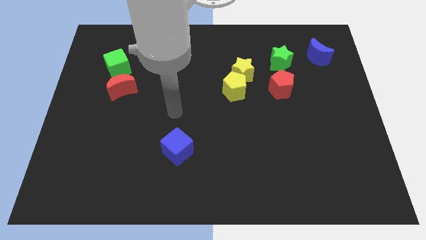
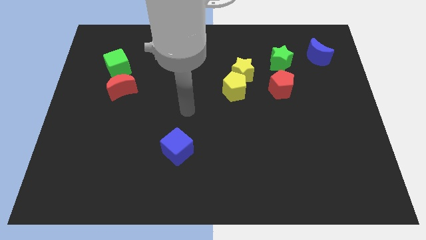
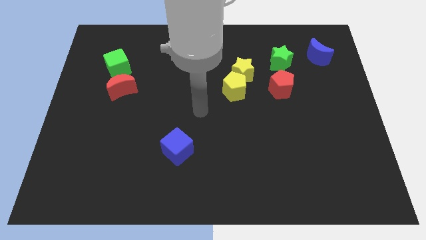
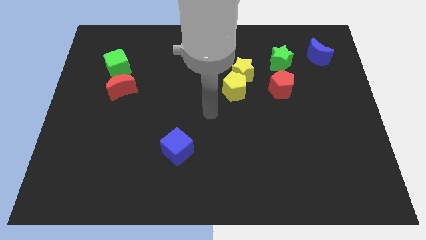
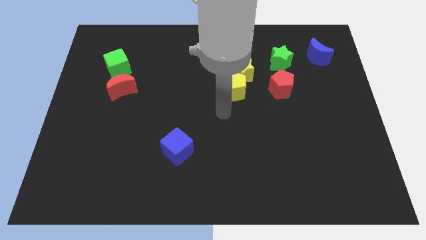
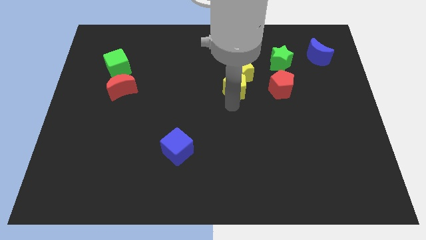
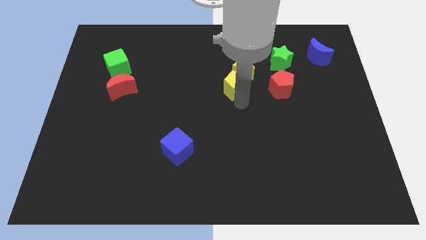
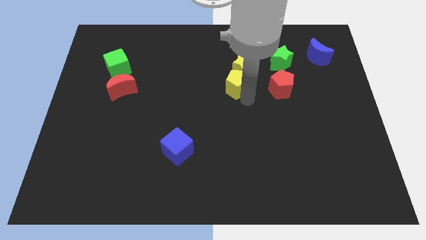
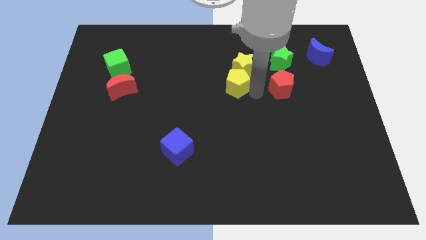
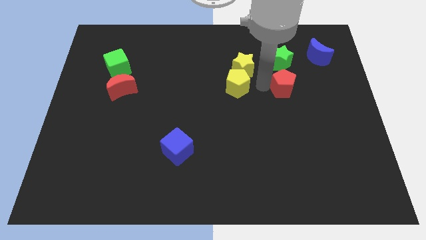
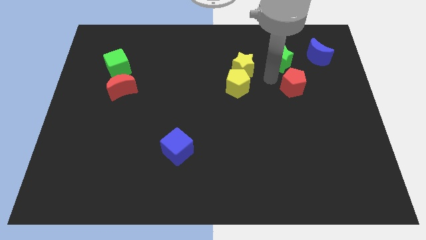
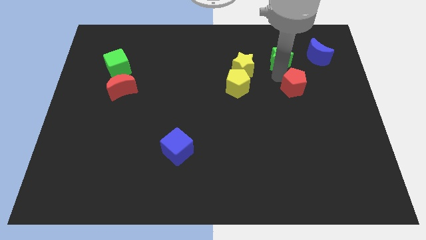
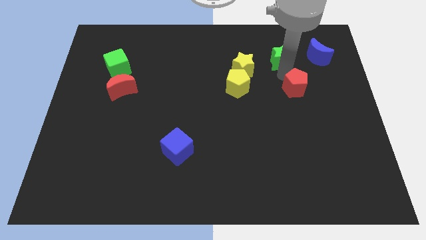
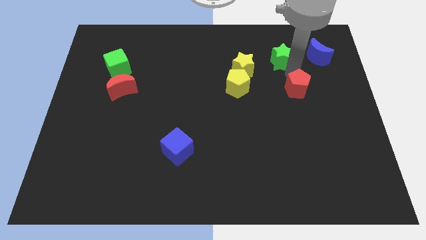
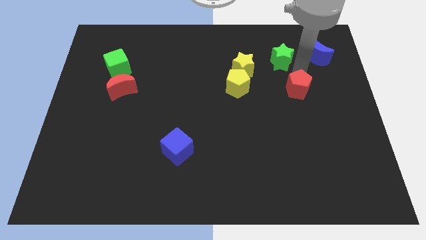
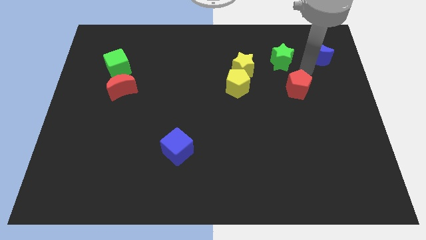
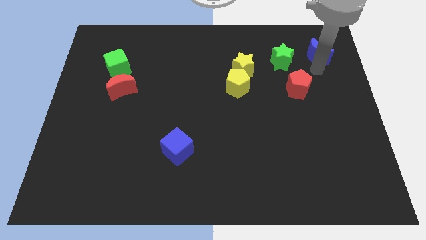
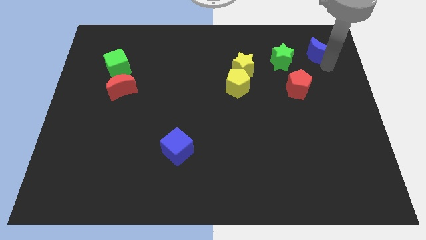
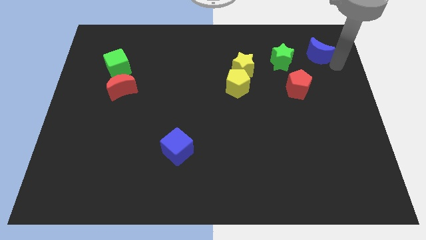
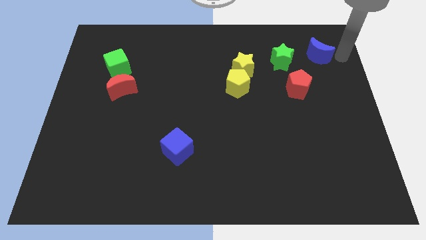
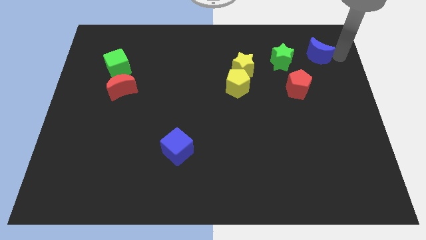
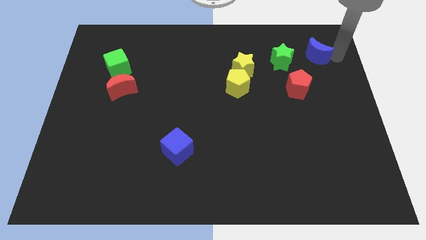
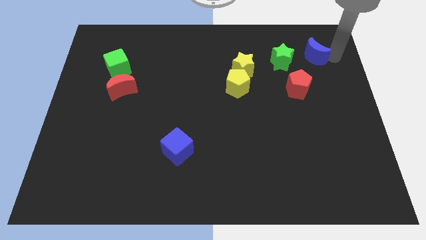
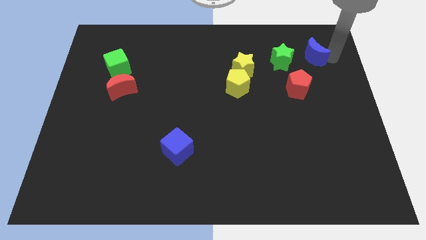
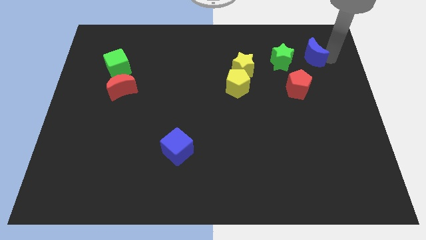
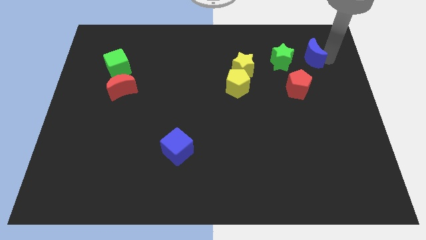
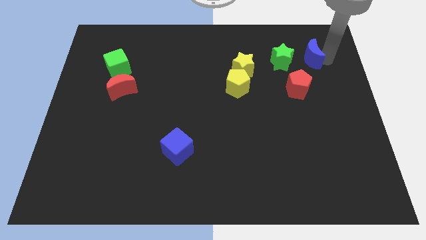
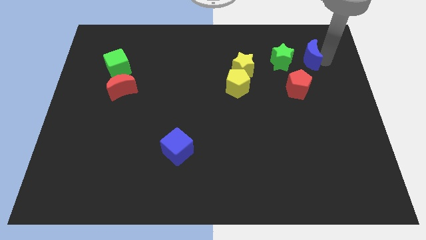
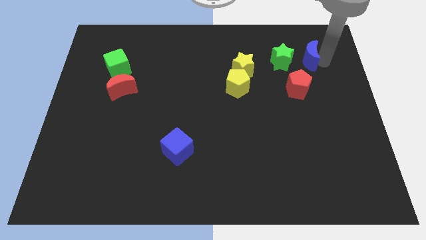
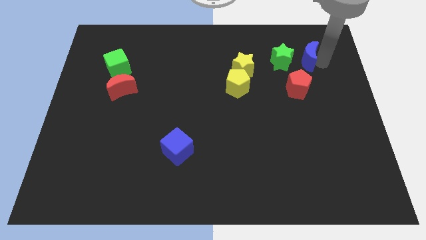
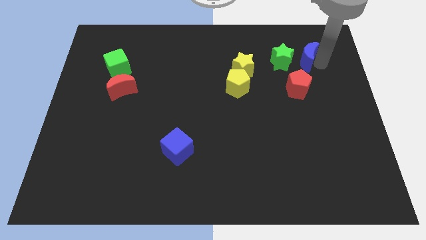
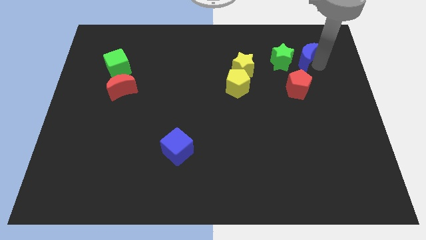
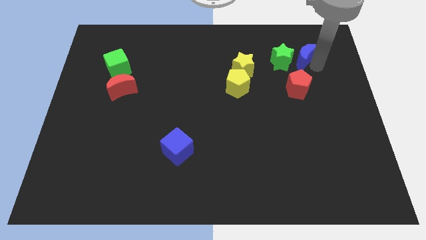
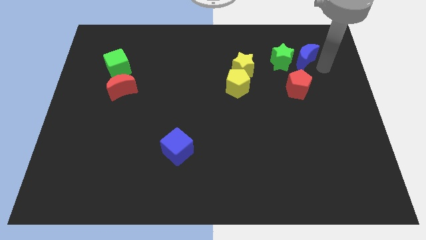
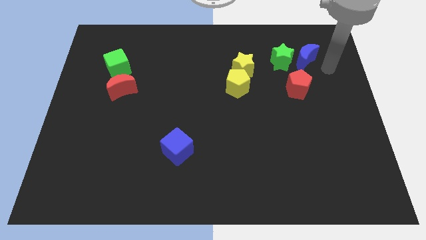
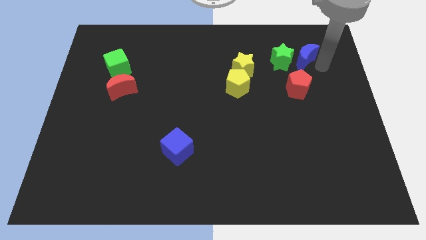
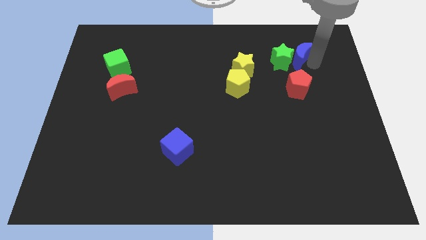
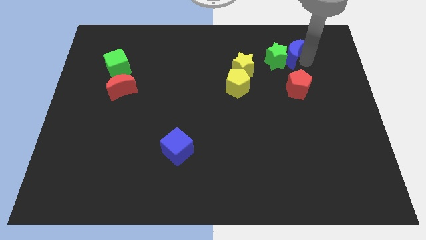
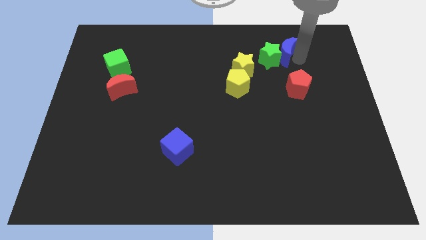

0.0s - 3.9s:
slightly push the blue moon left

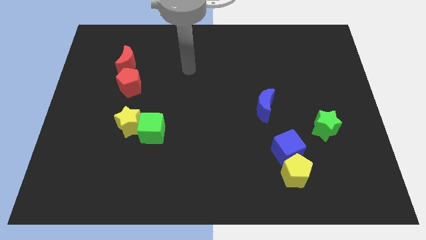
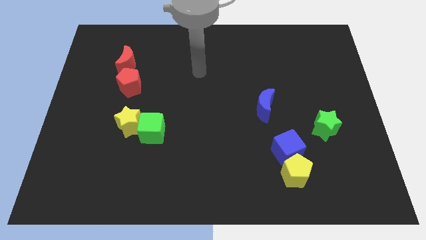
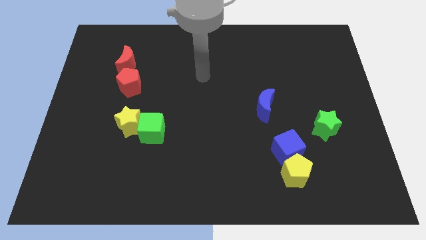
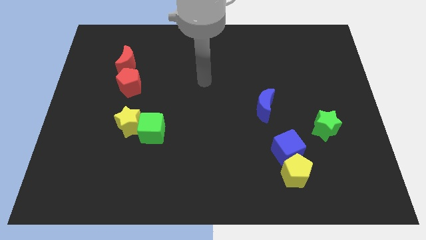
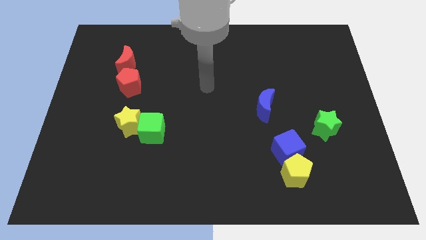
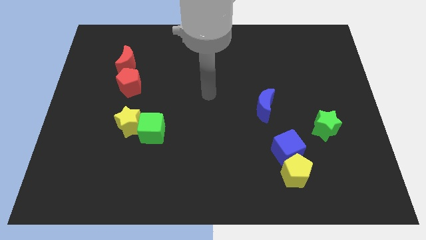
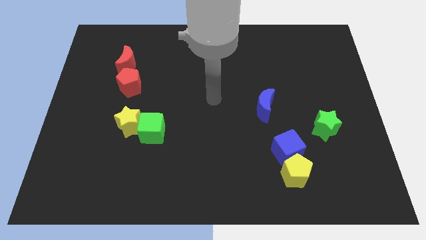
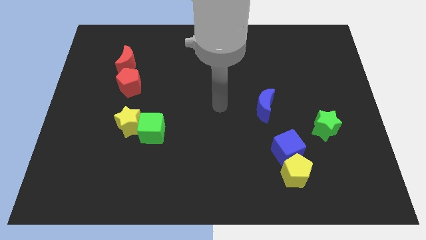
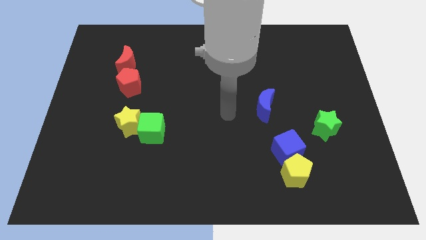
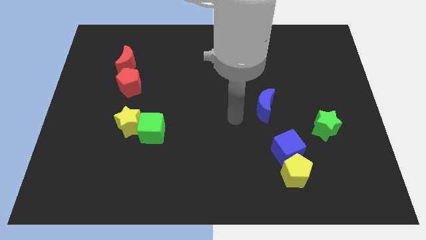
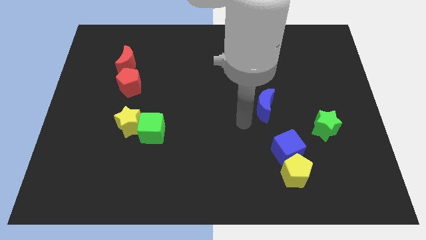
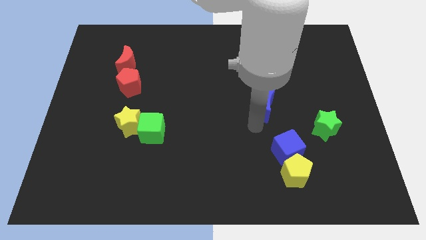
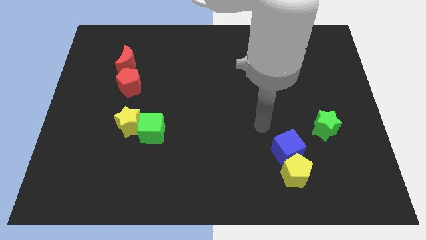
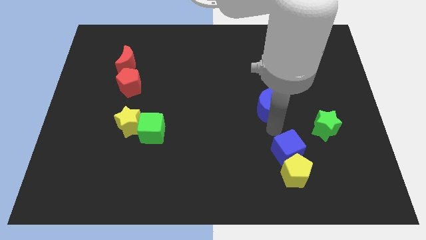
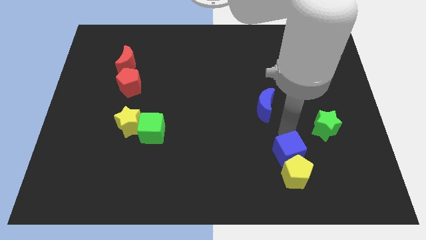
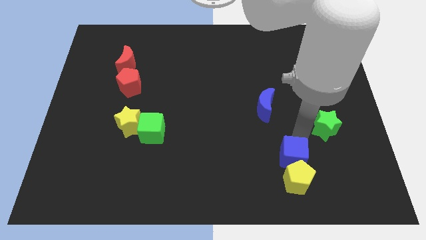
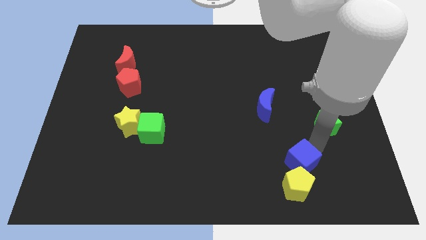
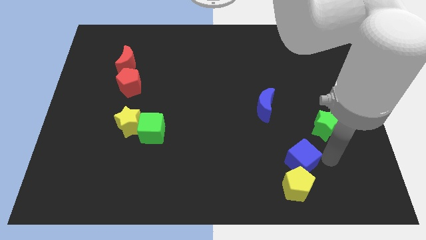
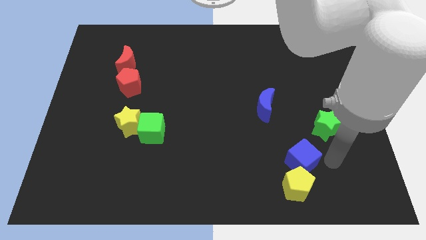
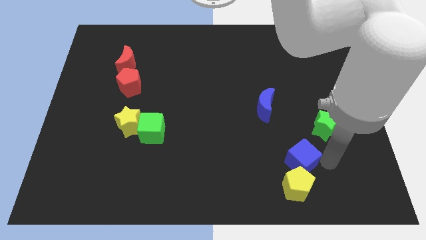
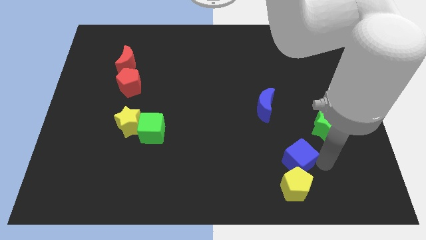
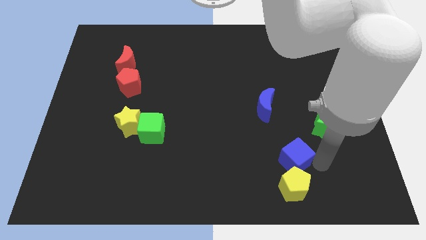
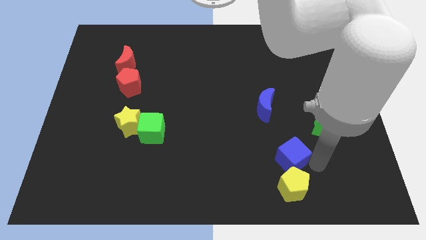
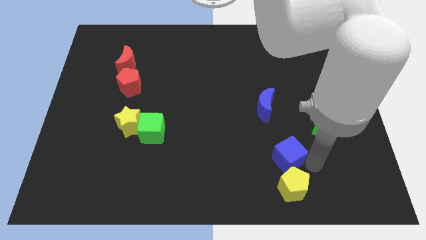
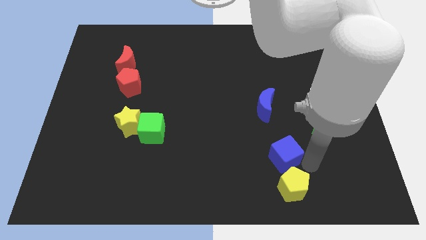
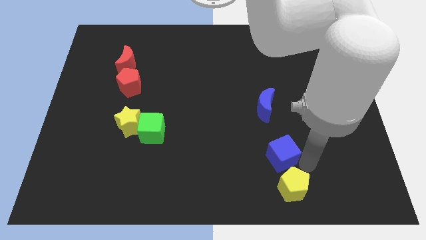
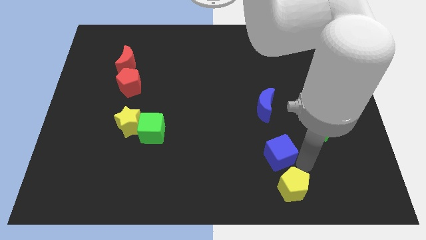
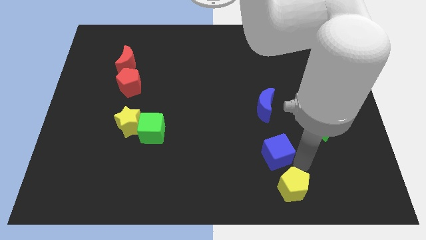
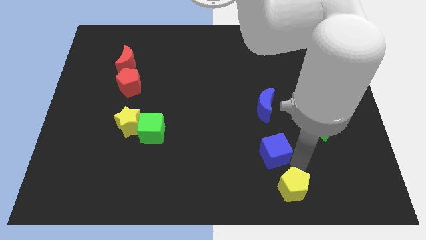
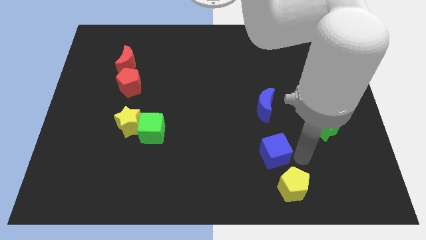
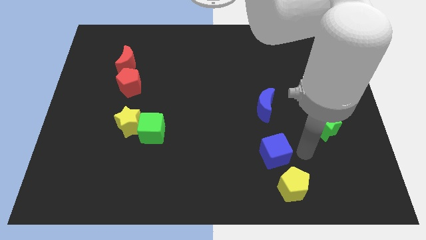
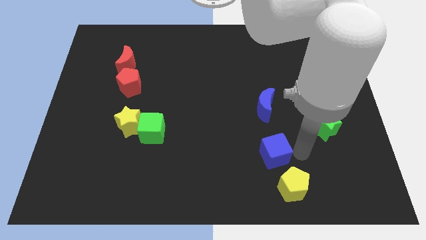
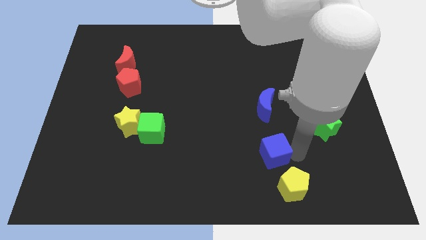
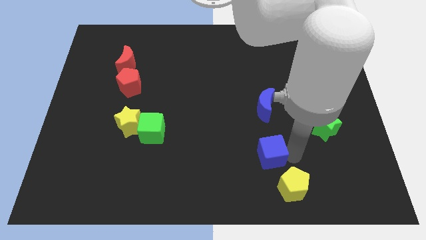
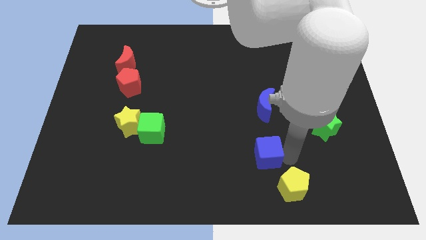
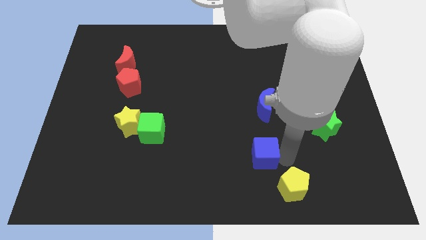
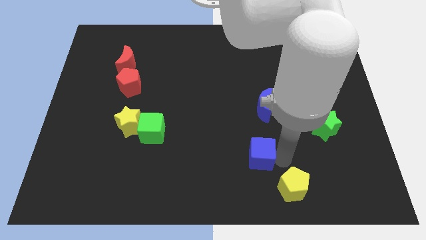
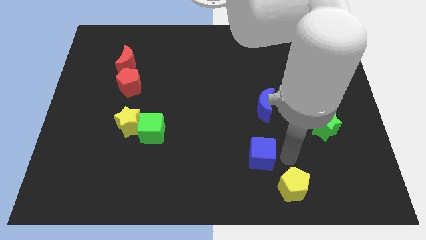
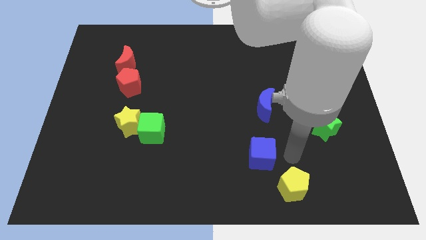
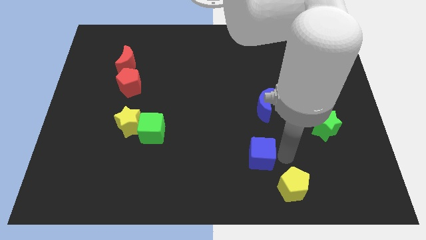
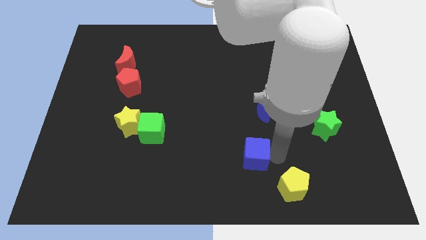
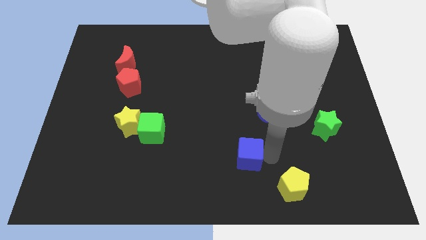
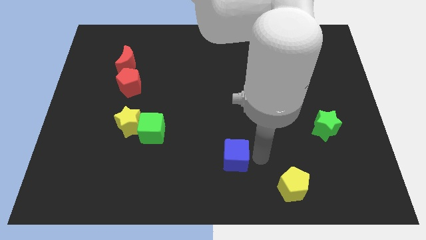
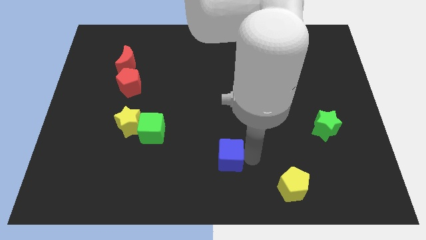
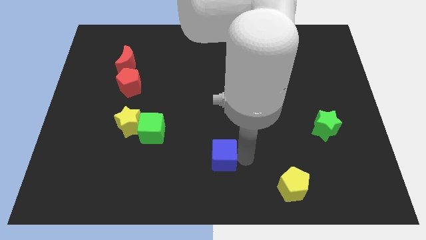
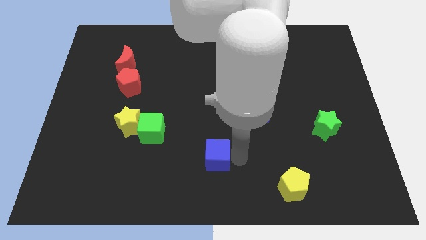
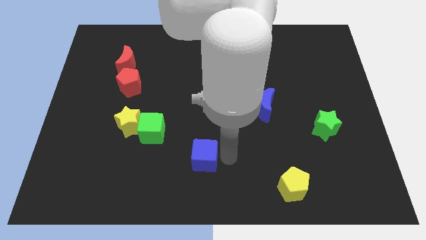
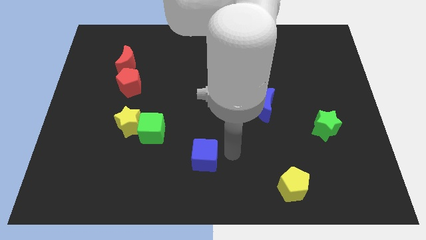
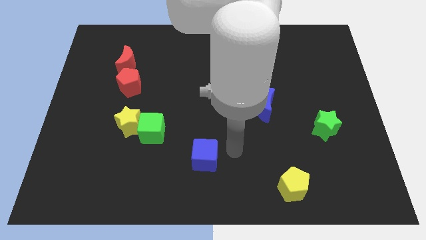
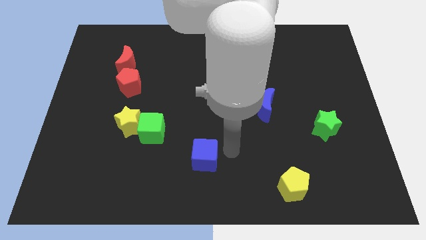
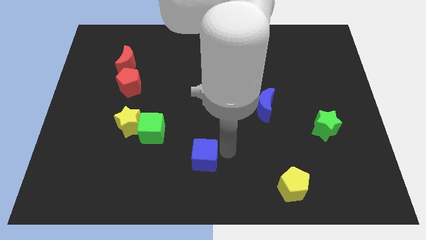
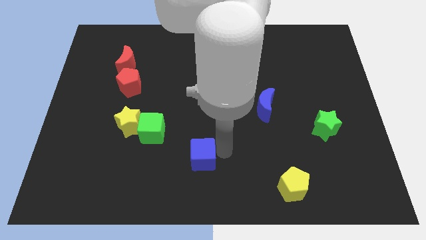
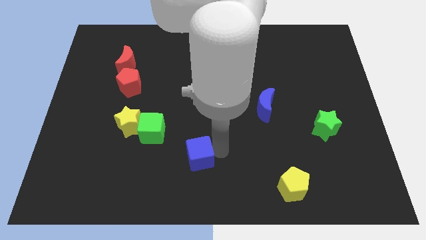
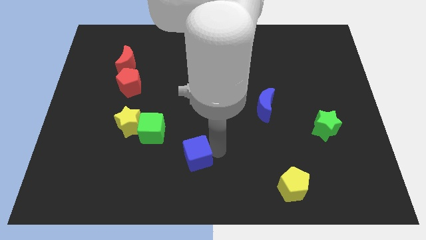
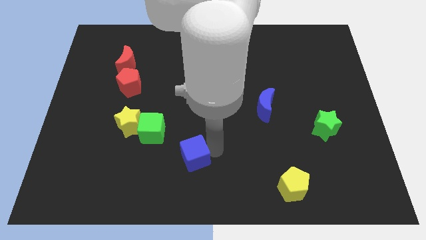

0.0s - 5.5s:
move the blue cube to the left
